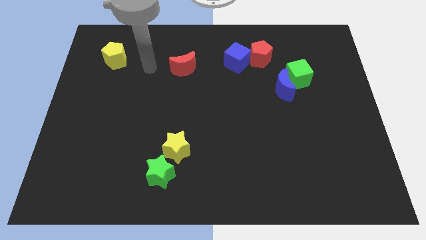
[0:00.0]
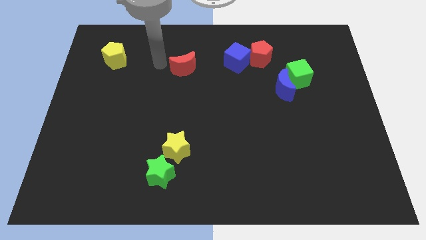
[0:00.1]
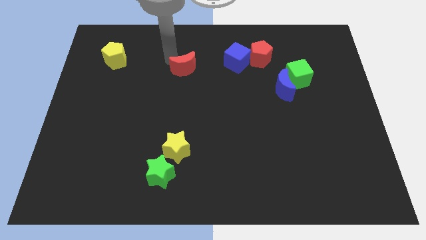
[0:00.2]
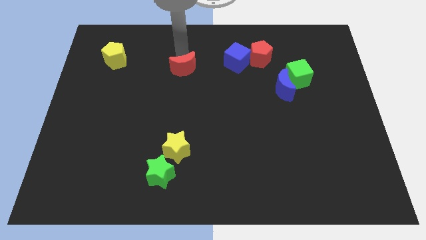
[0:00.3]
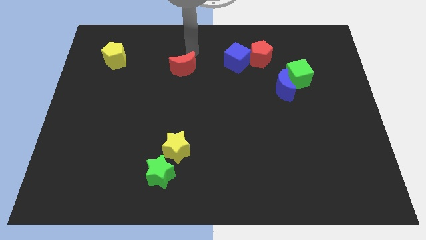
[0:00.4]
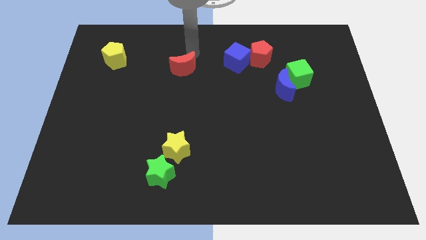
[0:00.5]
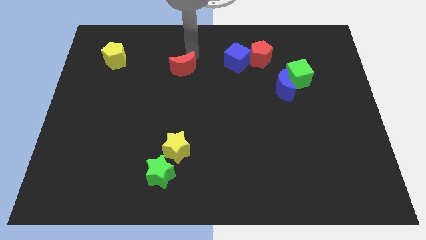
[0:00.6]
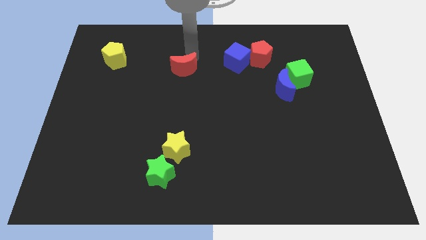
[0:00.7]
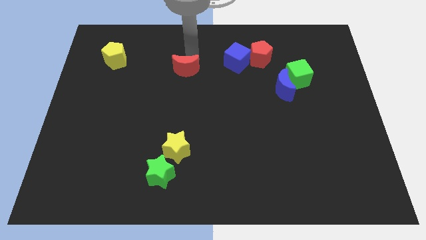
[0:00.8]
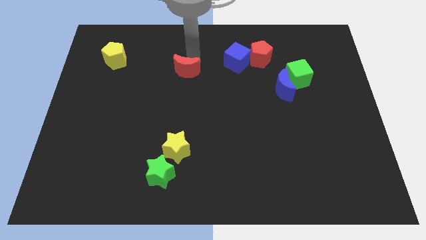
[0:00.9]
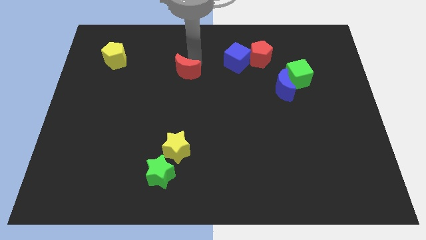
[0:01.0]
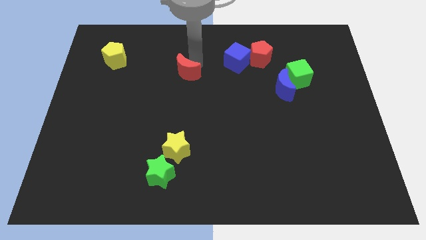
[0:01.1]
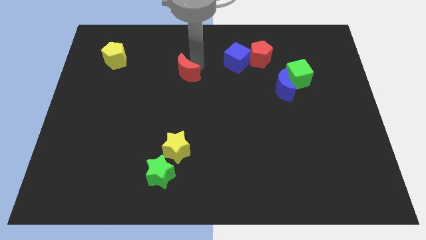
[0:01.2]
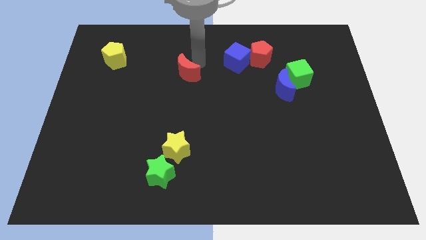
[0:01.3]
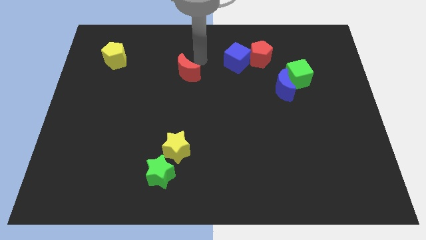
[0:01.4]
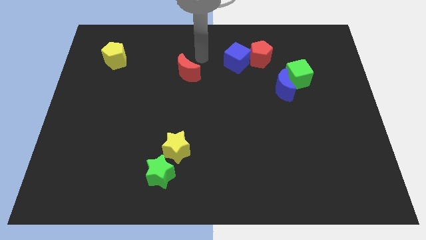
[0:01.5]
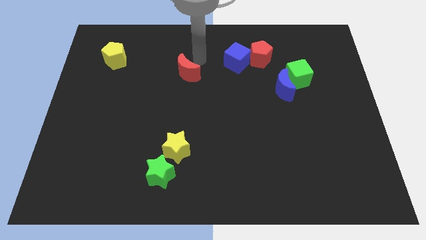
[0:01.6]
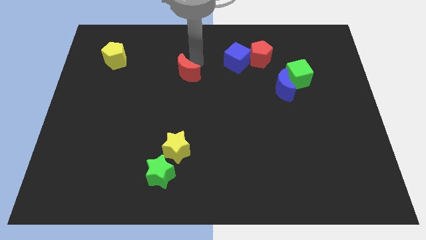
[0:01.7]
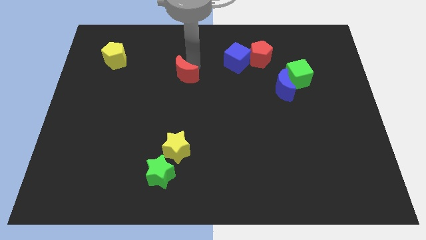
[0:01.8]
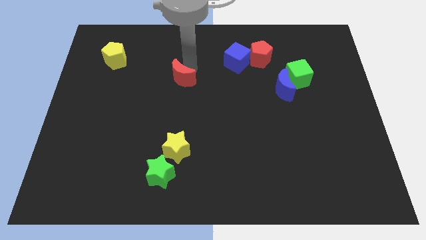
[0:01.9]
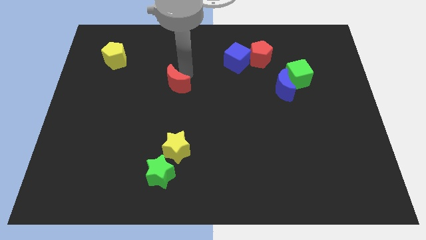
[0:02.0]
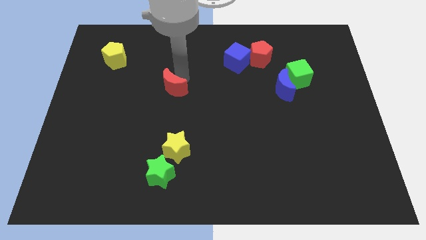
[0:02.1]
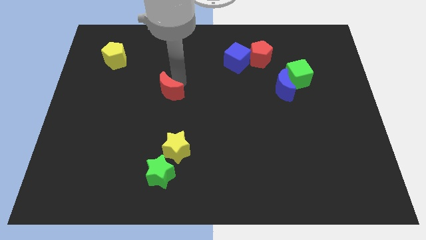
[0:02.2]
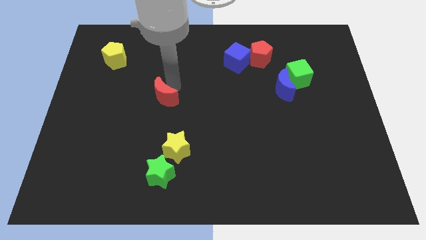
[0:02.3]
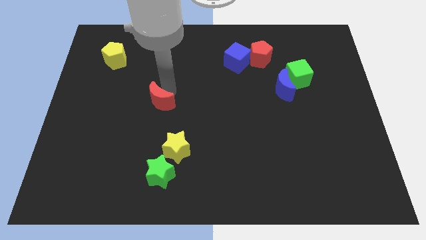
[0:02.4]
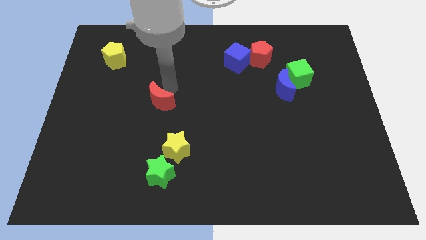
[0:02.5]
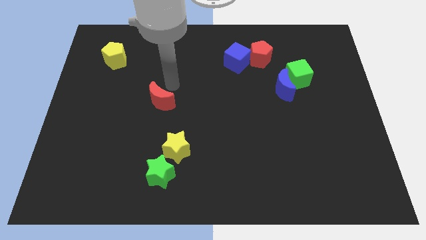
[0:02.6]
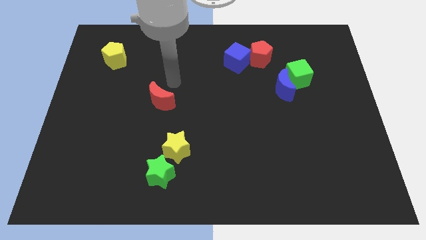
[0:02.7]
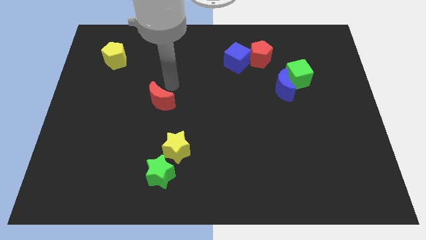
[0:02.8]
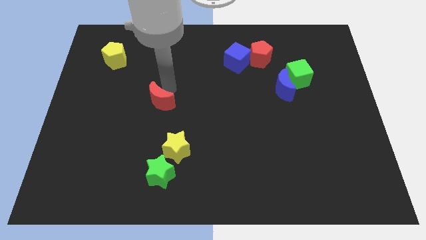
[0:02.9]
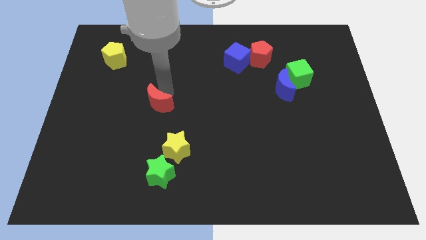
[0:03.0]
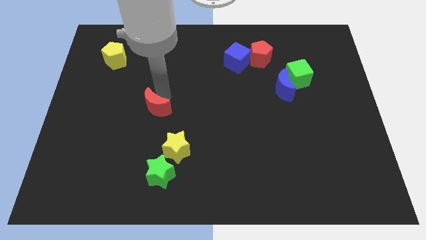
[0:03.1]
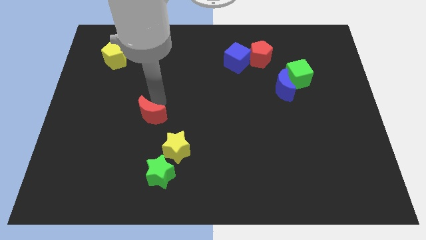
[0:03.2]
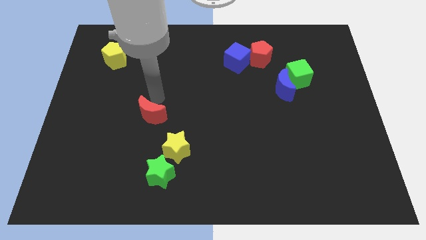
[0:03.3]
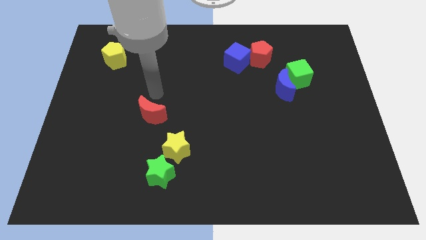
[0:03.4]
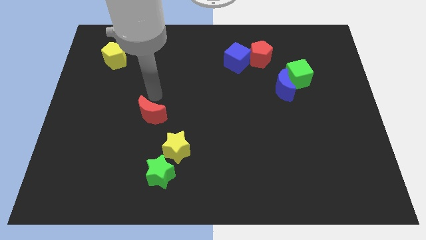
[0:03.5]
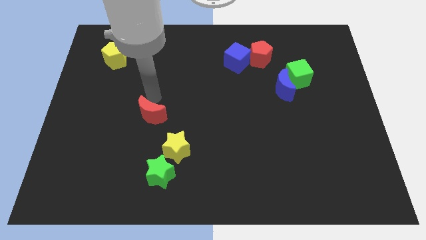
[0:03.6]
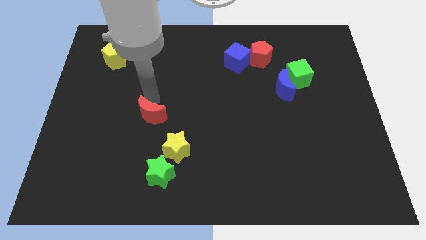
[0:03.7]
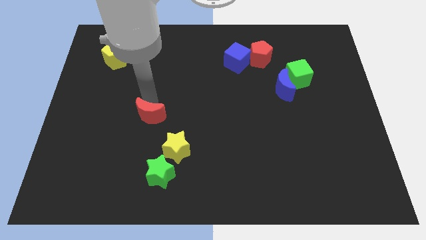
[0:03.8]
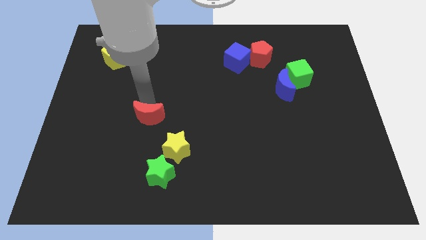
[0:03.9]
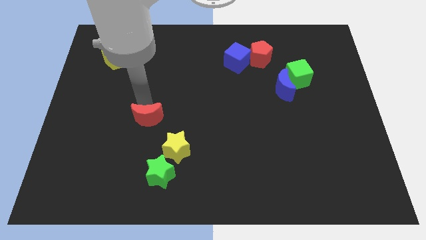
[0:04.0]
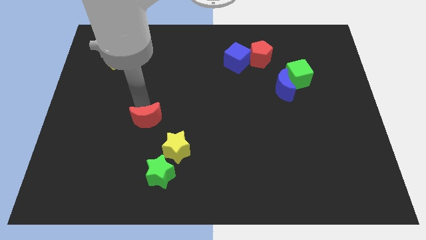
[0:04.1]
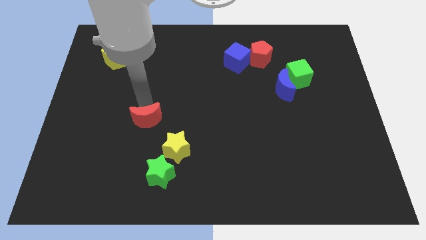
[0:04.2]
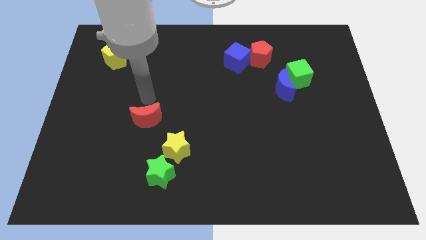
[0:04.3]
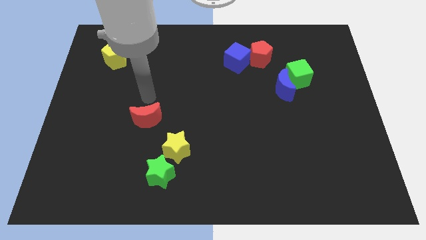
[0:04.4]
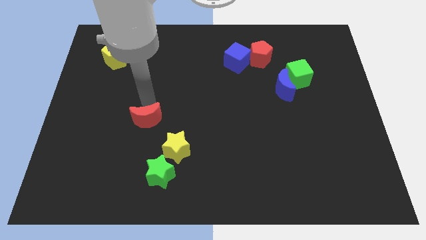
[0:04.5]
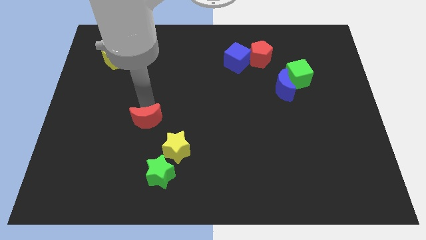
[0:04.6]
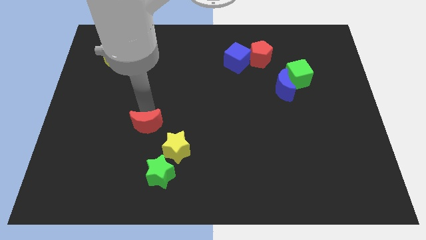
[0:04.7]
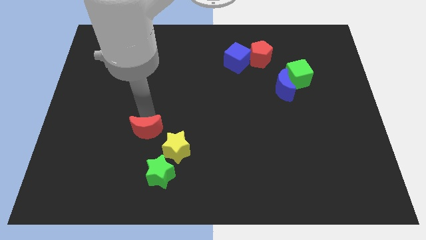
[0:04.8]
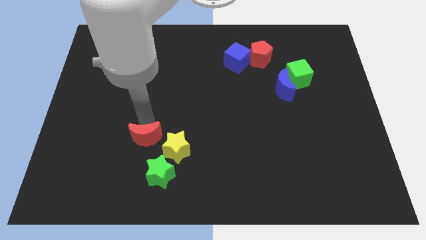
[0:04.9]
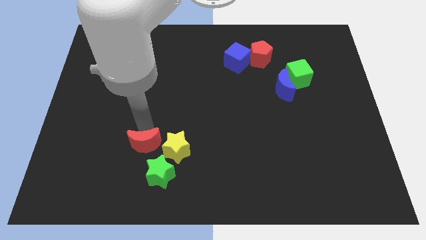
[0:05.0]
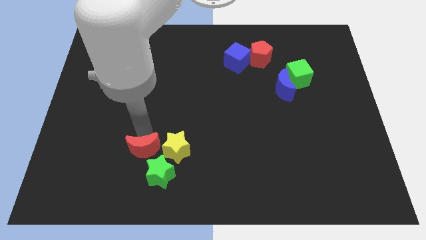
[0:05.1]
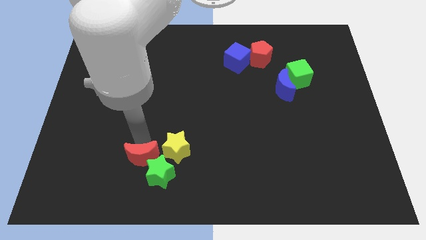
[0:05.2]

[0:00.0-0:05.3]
put the red moon close to the green star

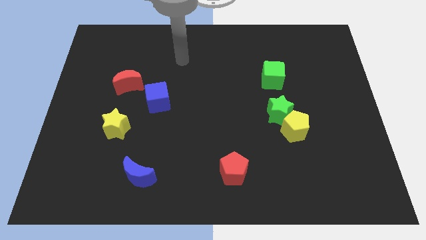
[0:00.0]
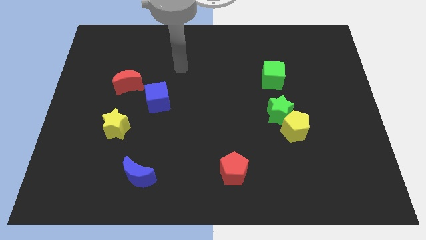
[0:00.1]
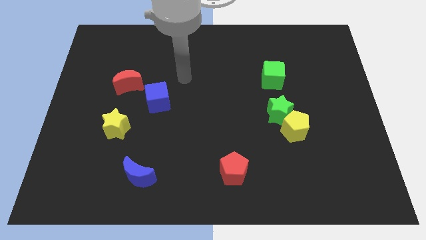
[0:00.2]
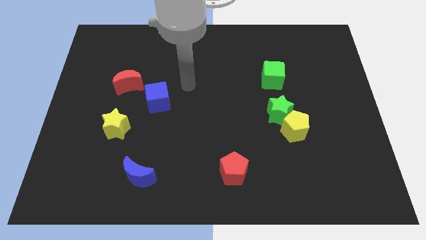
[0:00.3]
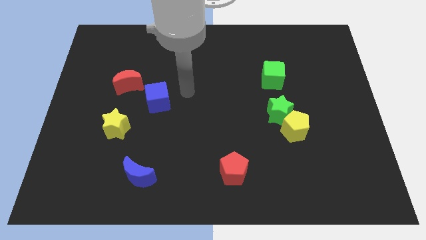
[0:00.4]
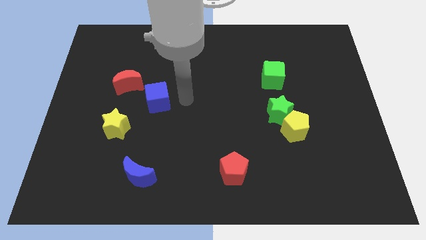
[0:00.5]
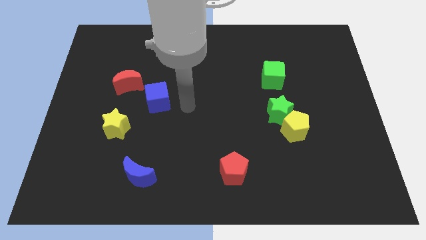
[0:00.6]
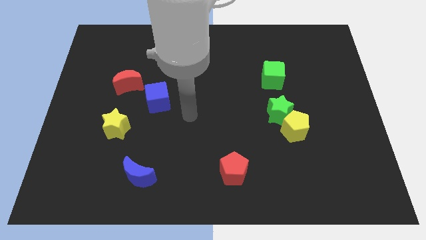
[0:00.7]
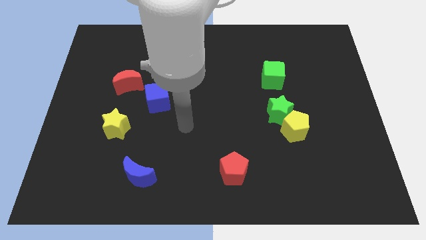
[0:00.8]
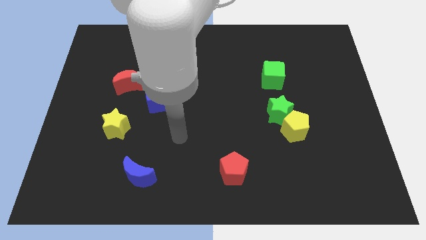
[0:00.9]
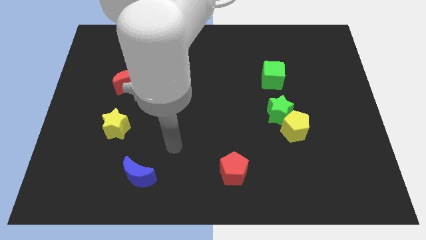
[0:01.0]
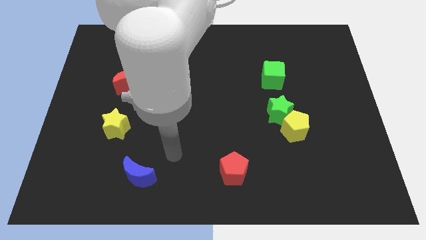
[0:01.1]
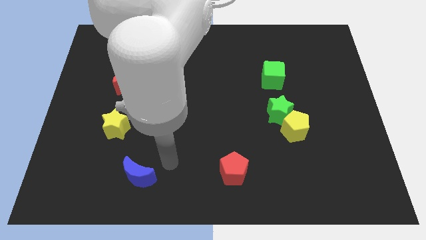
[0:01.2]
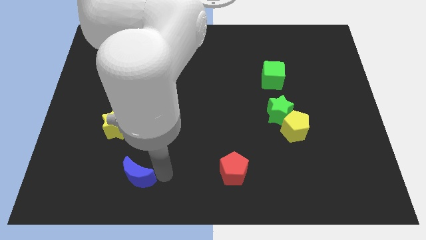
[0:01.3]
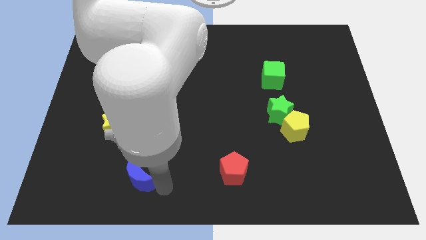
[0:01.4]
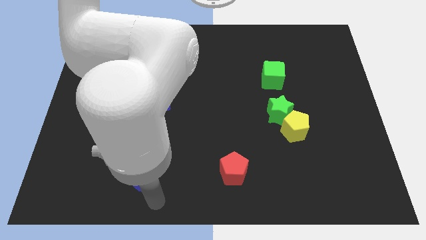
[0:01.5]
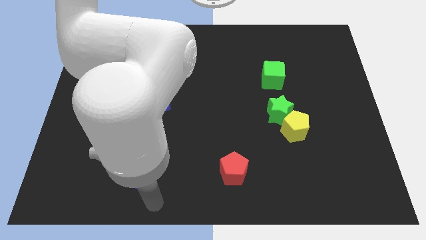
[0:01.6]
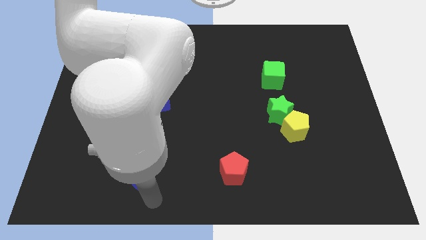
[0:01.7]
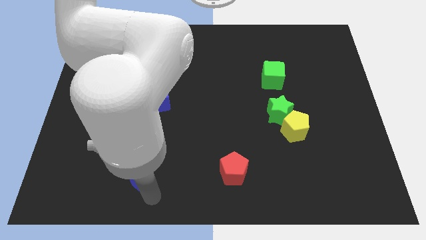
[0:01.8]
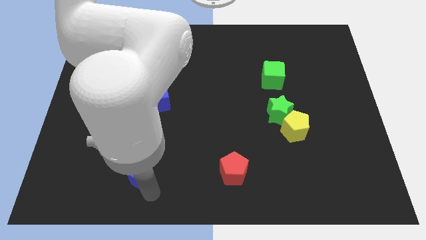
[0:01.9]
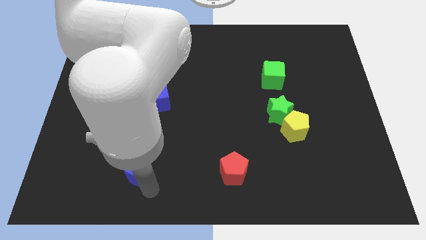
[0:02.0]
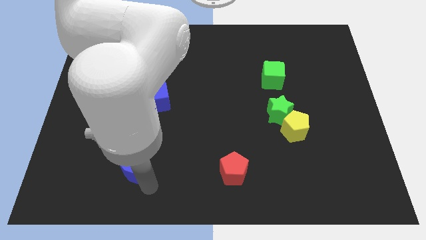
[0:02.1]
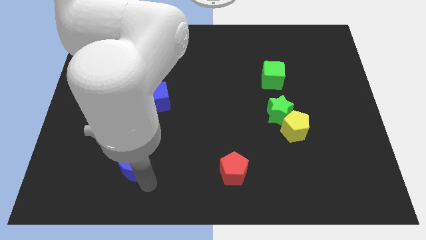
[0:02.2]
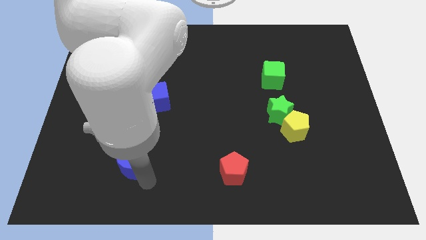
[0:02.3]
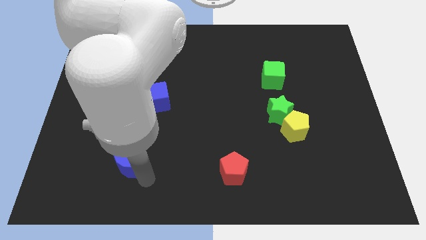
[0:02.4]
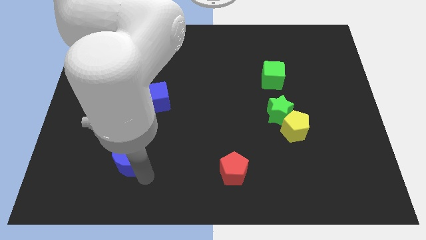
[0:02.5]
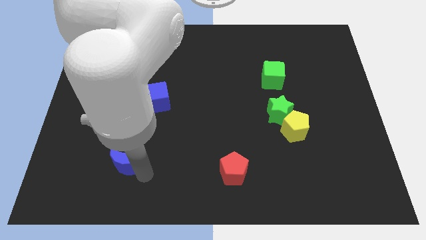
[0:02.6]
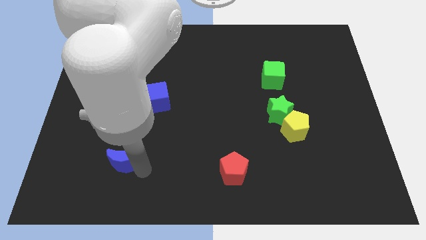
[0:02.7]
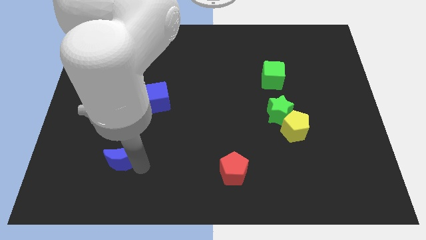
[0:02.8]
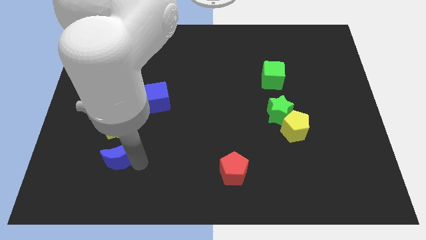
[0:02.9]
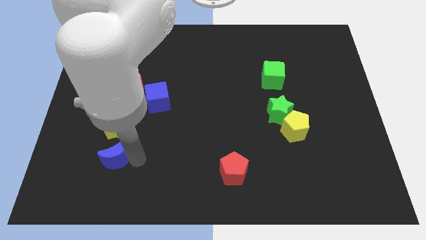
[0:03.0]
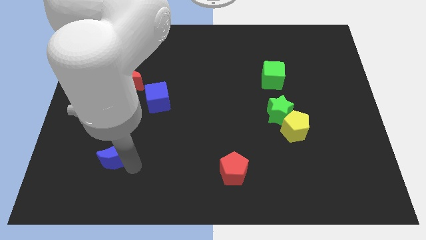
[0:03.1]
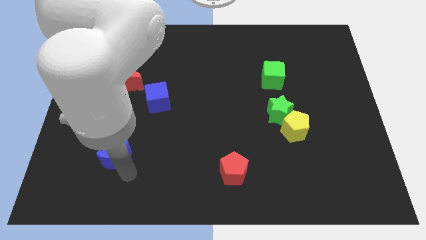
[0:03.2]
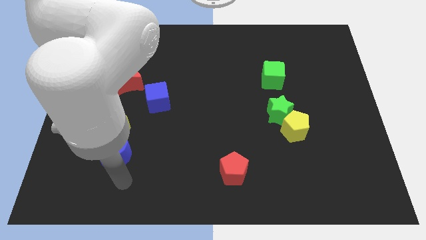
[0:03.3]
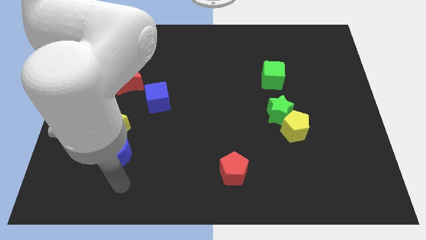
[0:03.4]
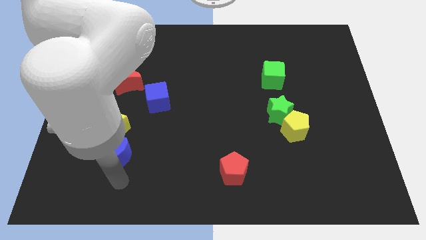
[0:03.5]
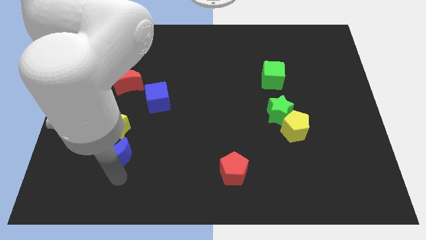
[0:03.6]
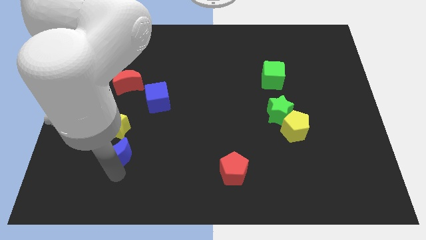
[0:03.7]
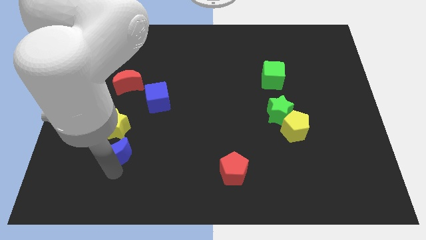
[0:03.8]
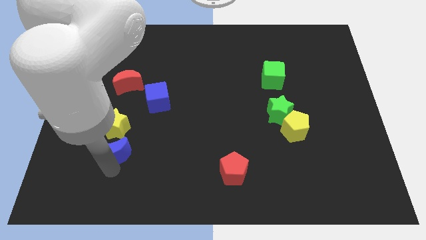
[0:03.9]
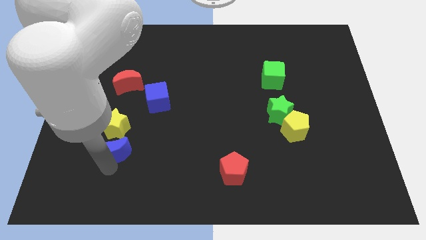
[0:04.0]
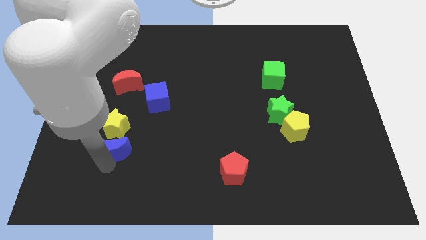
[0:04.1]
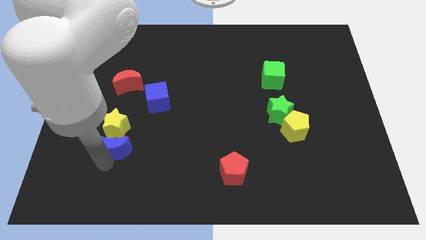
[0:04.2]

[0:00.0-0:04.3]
slide the blue moon close to the yellow star
